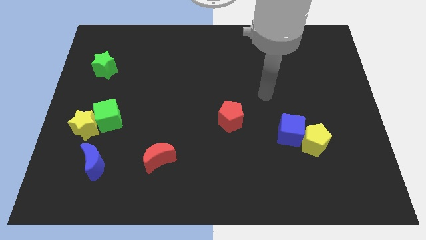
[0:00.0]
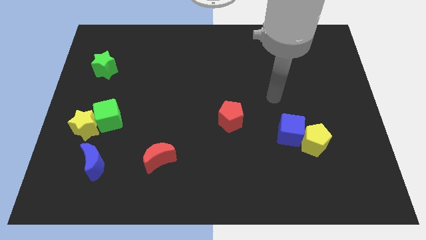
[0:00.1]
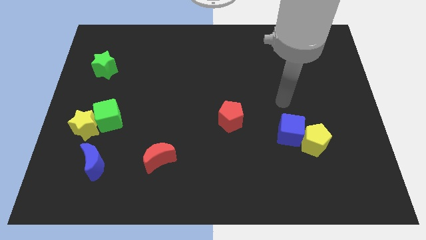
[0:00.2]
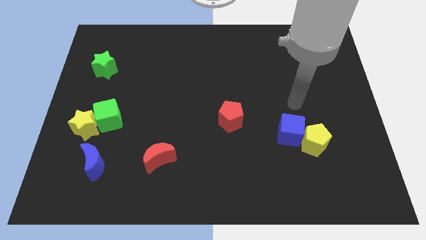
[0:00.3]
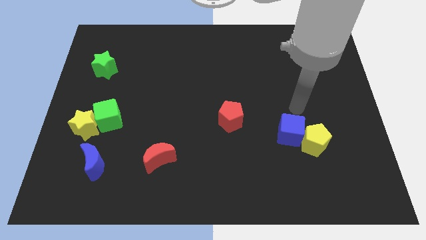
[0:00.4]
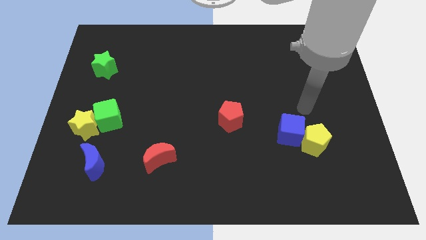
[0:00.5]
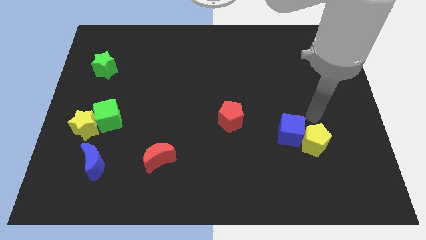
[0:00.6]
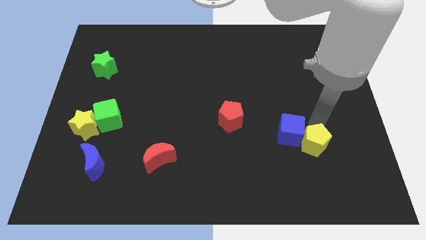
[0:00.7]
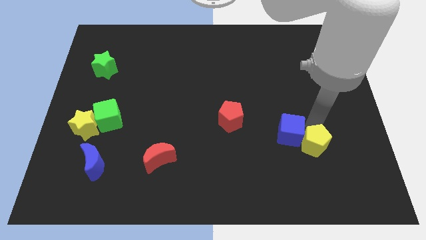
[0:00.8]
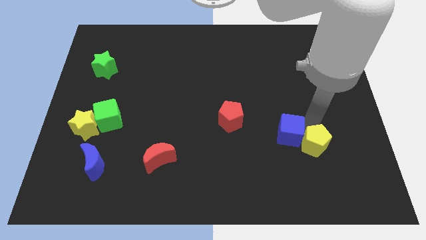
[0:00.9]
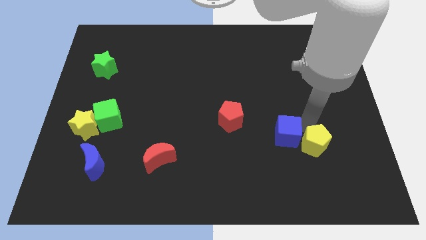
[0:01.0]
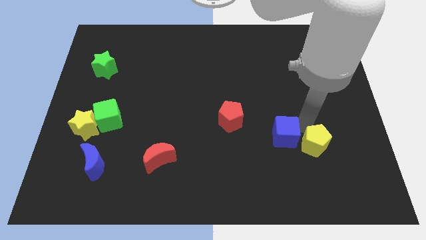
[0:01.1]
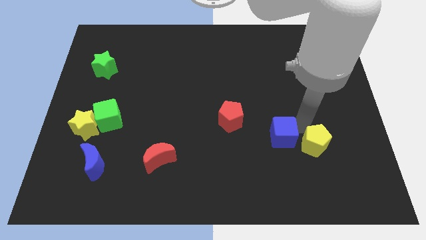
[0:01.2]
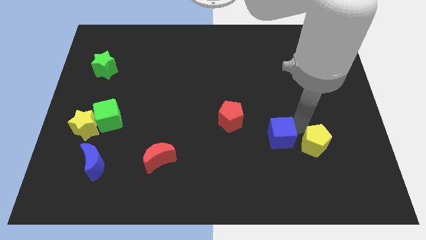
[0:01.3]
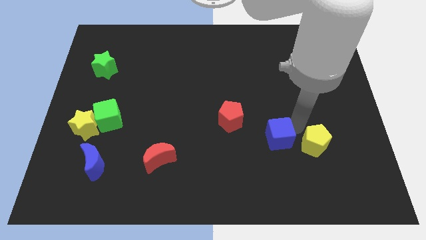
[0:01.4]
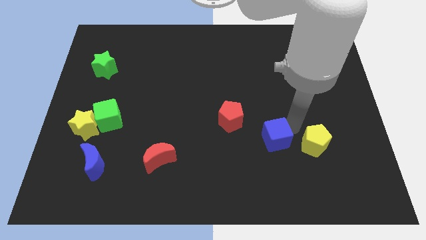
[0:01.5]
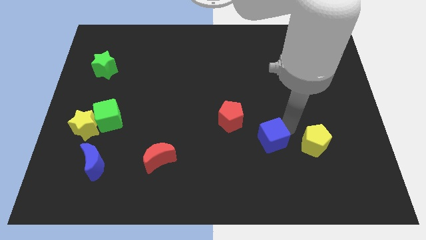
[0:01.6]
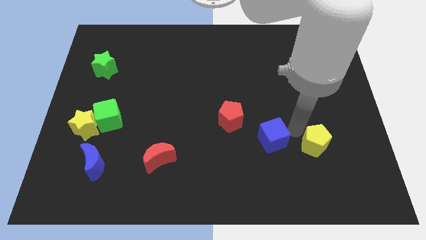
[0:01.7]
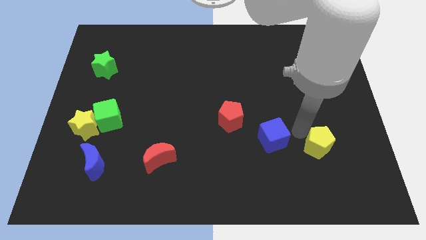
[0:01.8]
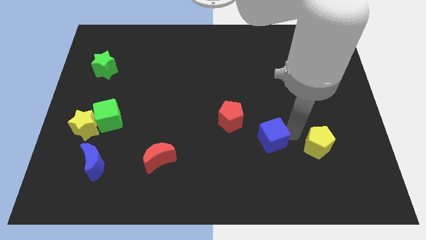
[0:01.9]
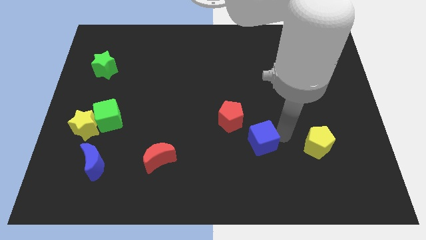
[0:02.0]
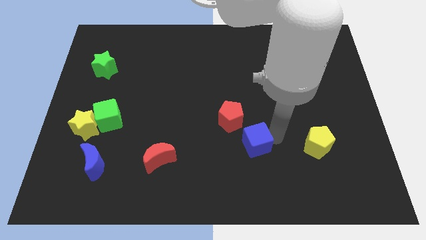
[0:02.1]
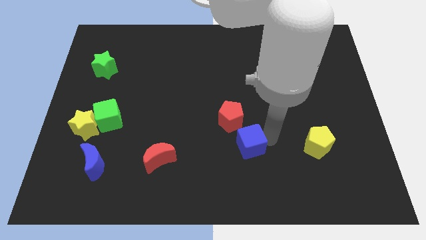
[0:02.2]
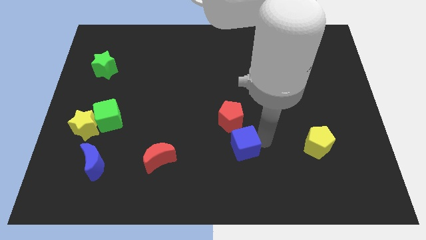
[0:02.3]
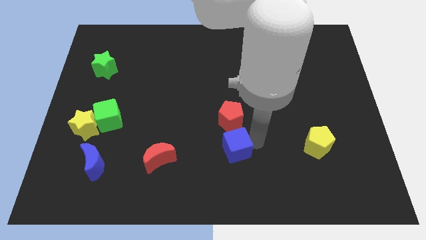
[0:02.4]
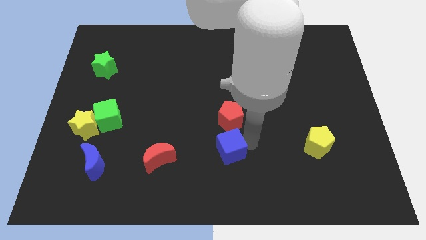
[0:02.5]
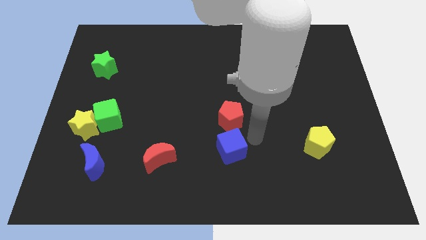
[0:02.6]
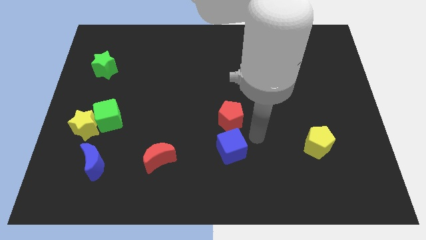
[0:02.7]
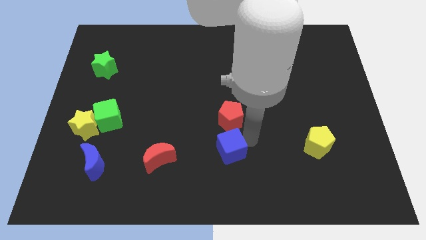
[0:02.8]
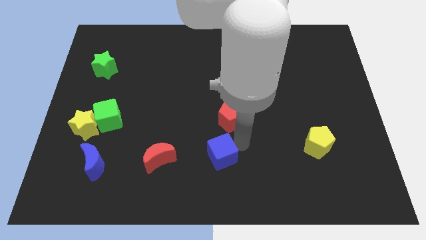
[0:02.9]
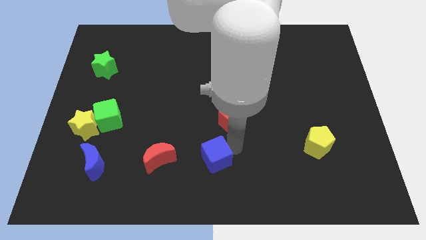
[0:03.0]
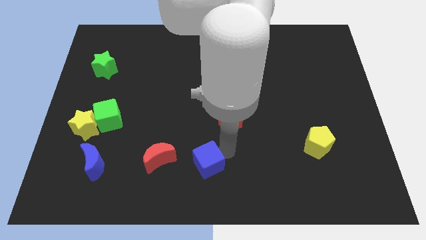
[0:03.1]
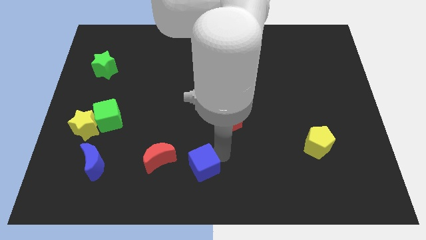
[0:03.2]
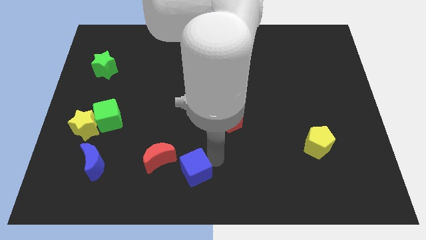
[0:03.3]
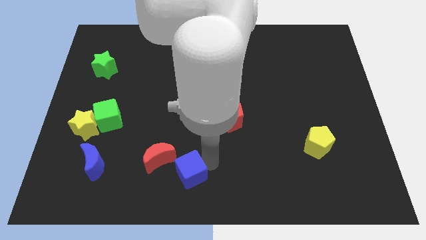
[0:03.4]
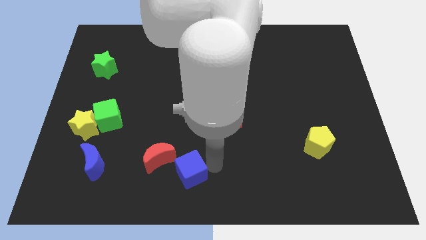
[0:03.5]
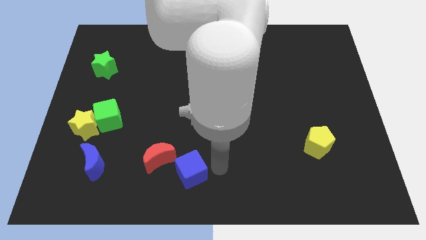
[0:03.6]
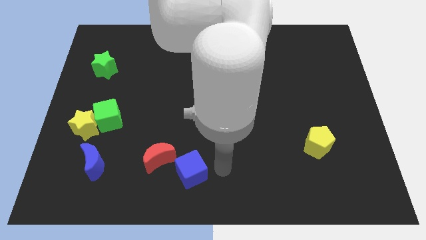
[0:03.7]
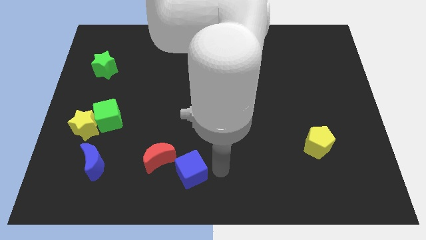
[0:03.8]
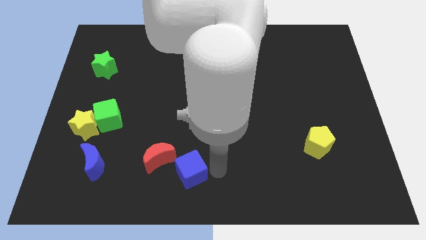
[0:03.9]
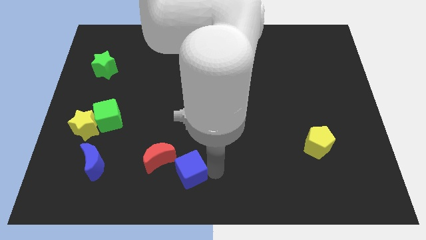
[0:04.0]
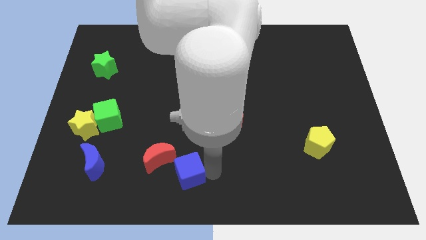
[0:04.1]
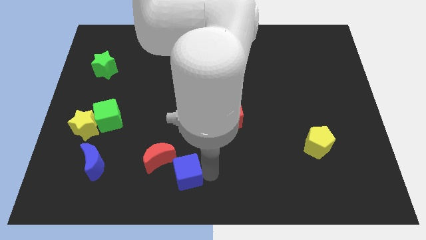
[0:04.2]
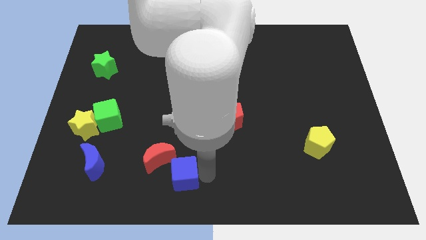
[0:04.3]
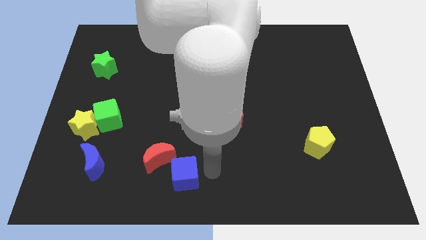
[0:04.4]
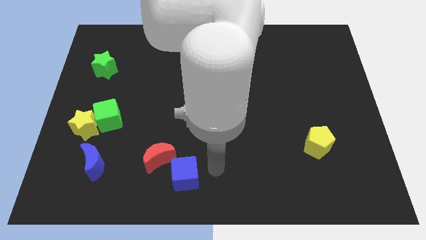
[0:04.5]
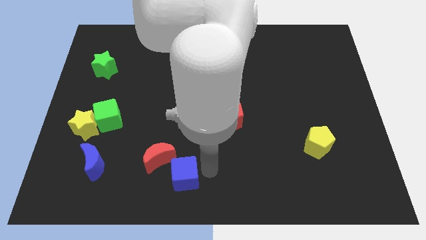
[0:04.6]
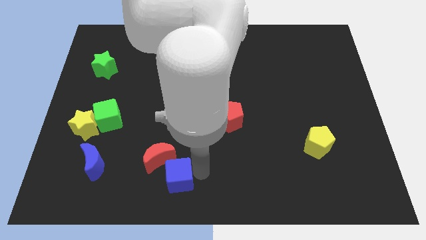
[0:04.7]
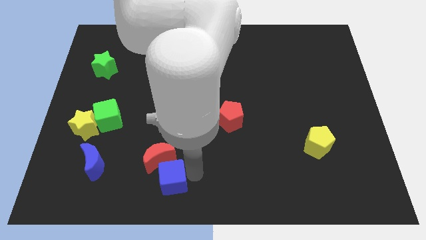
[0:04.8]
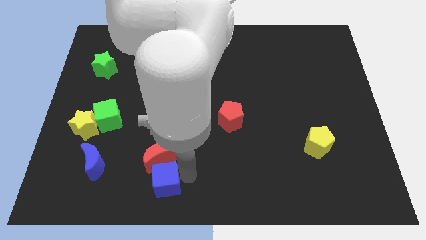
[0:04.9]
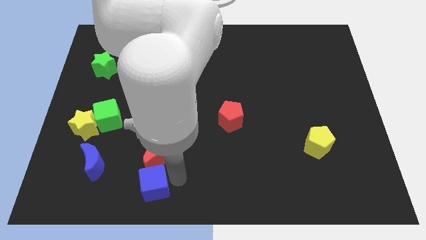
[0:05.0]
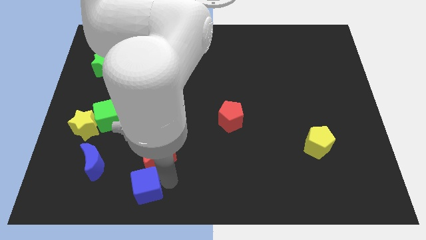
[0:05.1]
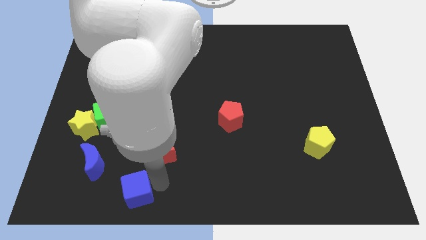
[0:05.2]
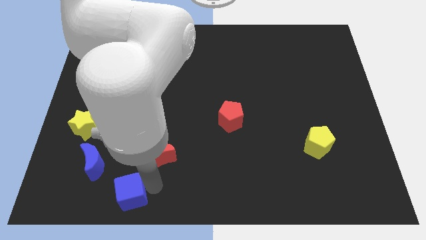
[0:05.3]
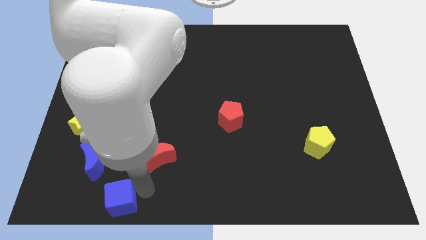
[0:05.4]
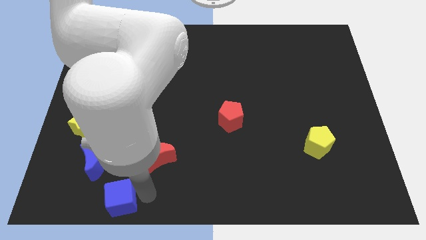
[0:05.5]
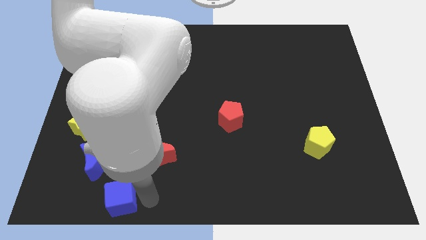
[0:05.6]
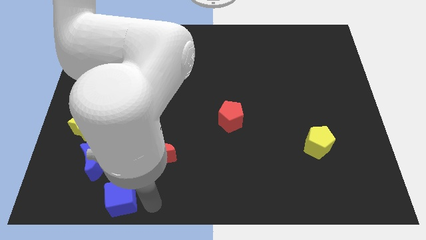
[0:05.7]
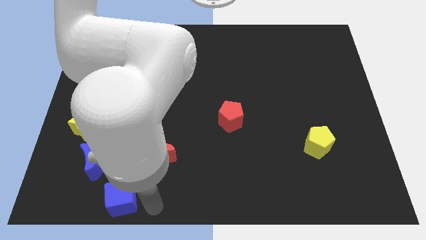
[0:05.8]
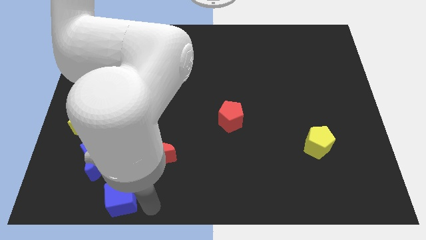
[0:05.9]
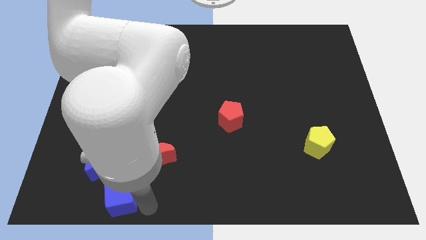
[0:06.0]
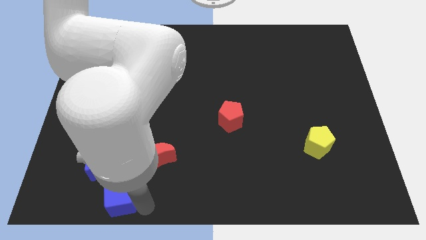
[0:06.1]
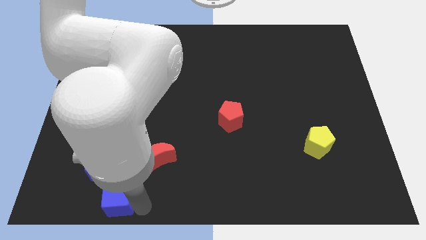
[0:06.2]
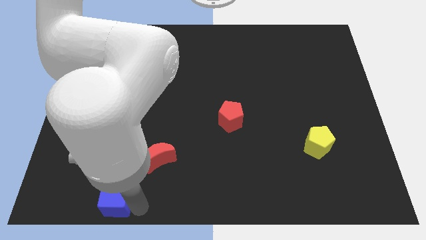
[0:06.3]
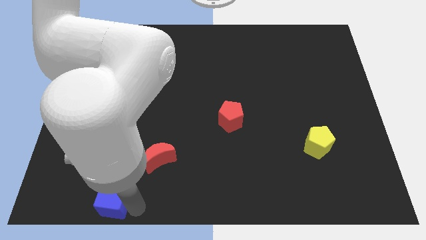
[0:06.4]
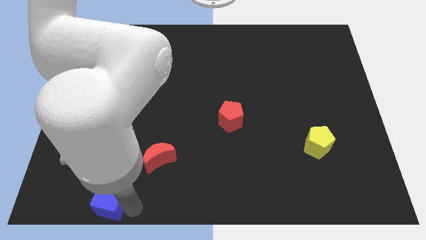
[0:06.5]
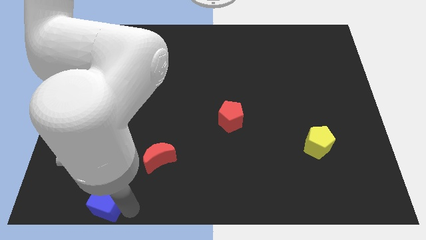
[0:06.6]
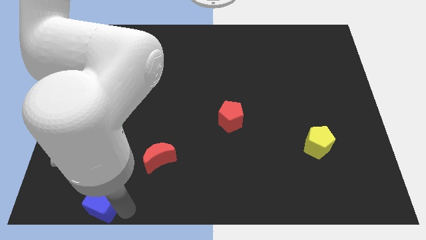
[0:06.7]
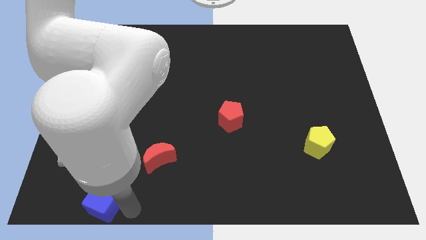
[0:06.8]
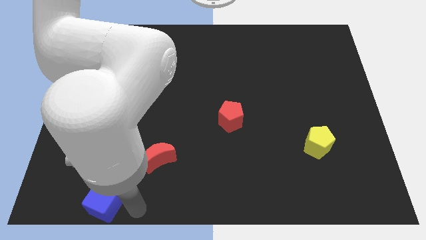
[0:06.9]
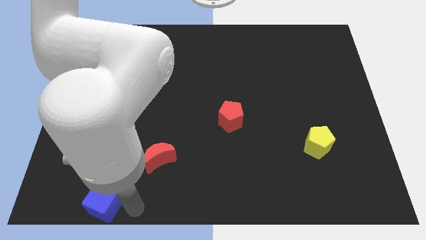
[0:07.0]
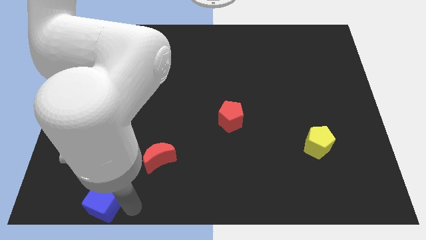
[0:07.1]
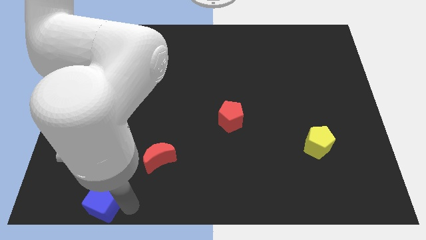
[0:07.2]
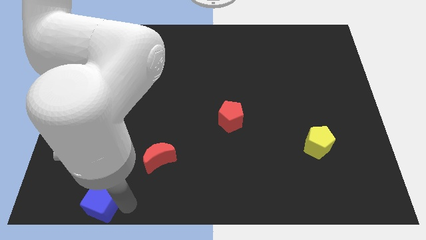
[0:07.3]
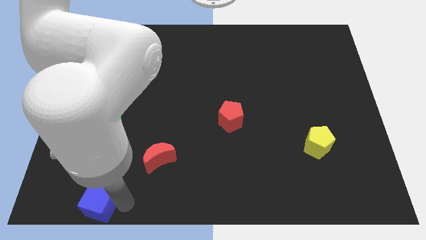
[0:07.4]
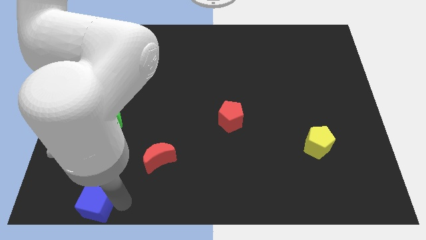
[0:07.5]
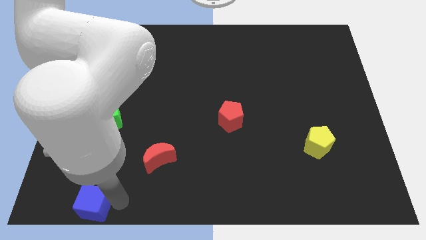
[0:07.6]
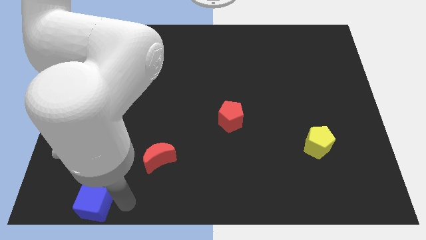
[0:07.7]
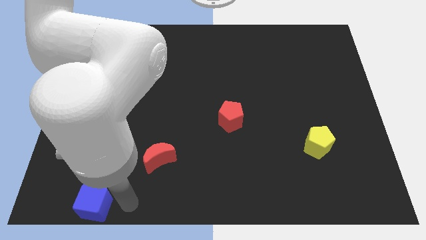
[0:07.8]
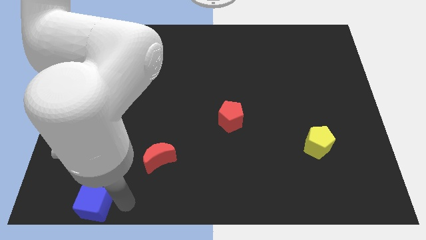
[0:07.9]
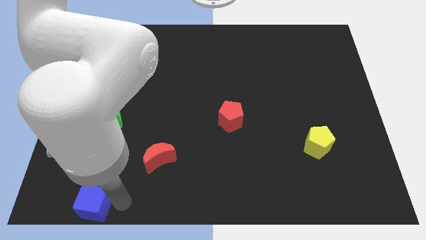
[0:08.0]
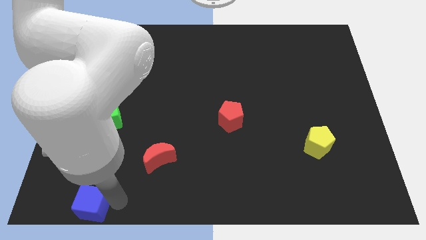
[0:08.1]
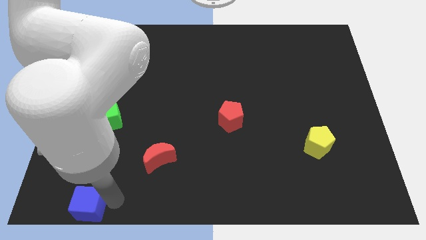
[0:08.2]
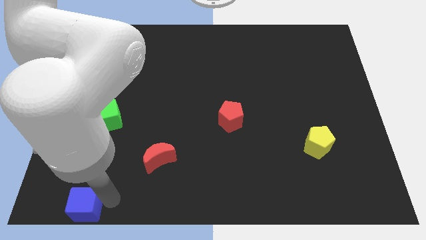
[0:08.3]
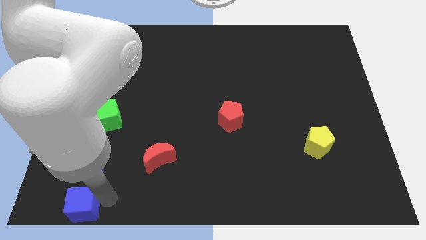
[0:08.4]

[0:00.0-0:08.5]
slide the blue cube to the bottom left corner
